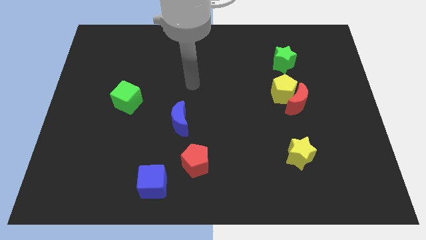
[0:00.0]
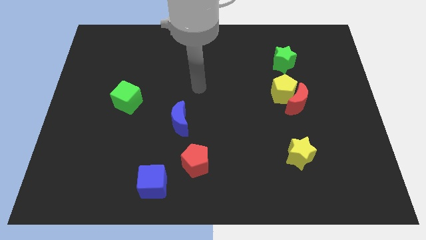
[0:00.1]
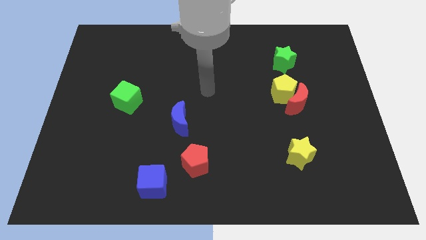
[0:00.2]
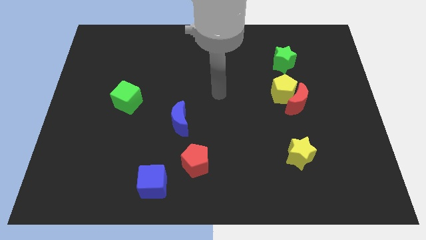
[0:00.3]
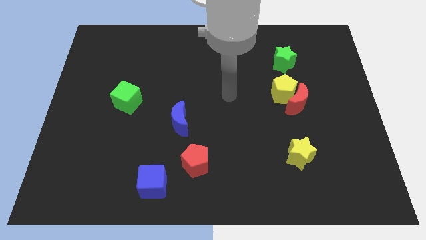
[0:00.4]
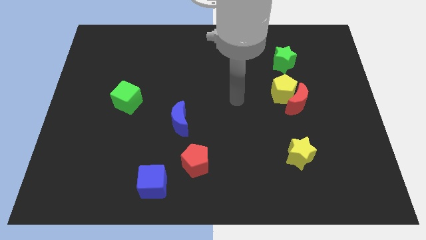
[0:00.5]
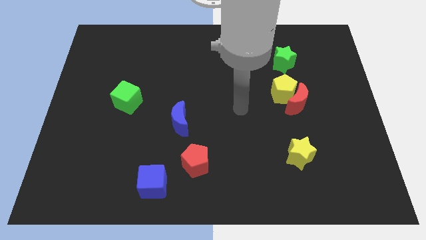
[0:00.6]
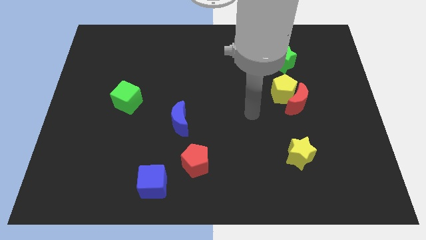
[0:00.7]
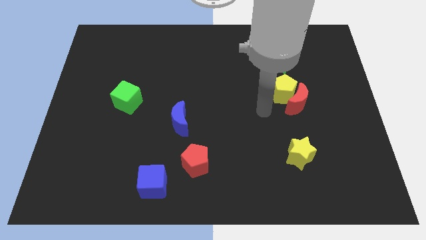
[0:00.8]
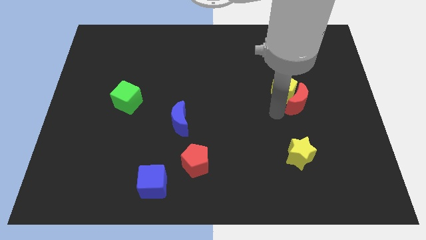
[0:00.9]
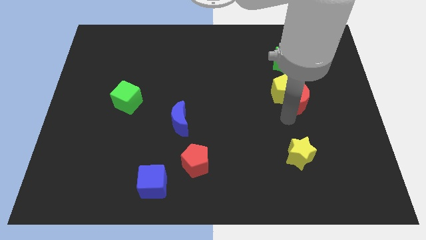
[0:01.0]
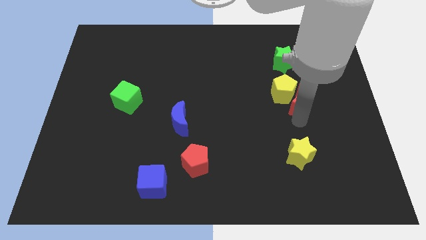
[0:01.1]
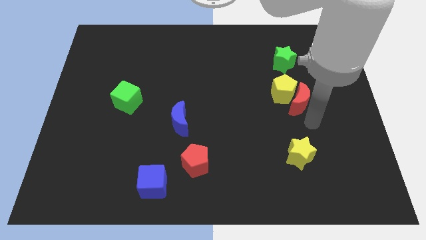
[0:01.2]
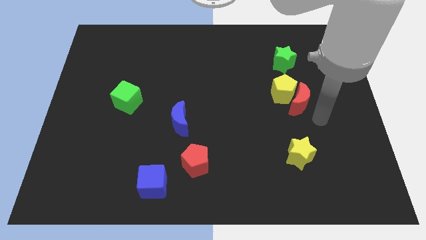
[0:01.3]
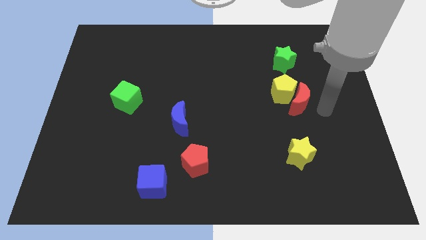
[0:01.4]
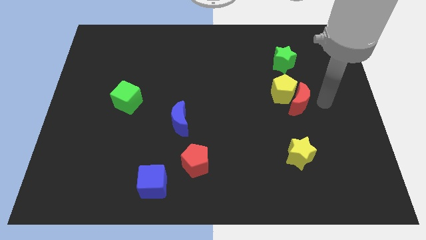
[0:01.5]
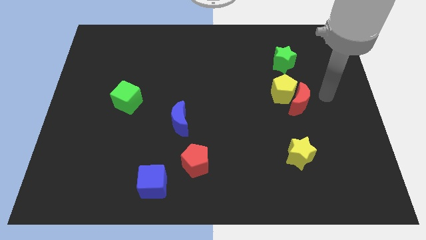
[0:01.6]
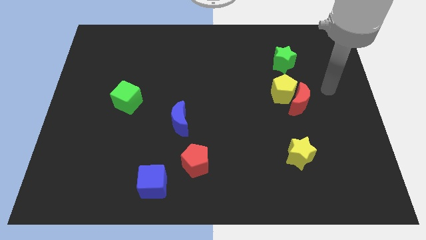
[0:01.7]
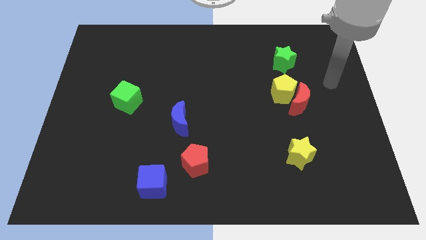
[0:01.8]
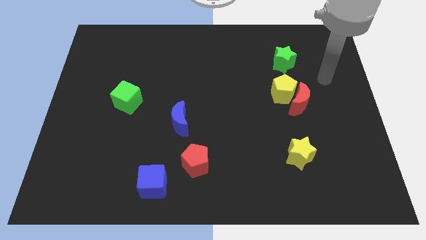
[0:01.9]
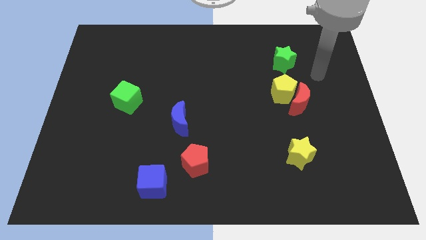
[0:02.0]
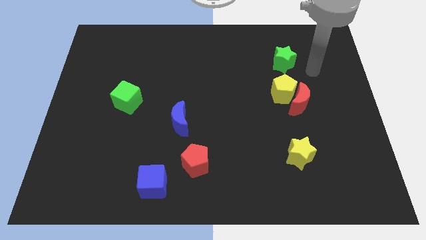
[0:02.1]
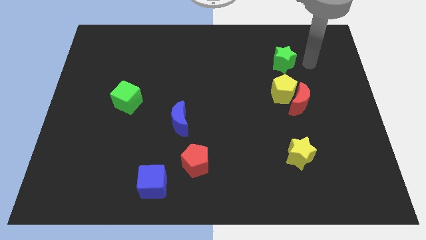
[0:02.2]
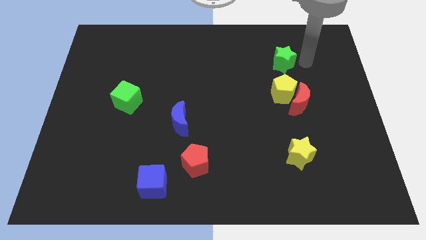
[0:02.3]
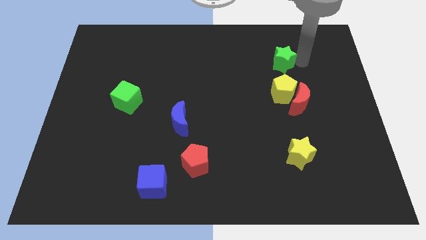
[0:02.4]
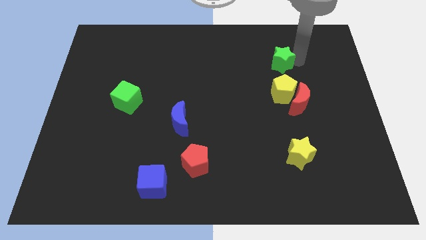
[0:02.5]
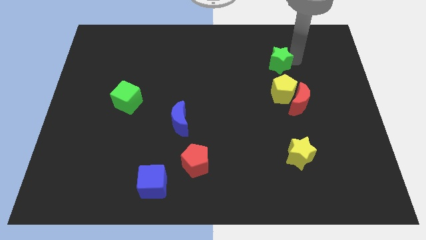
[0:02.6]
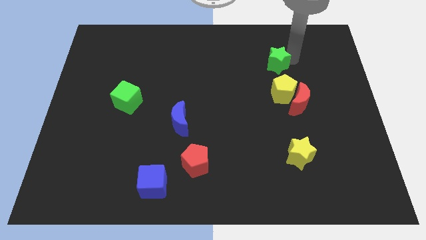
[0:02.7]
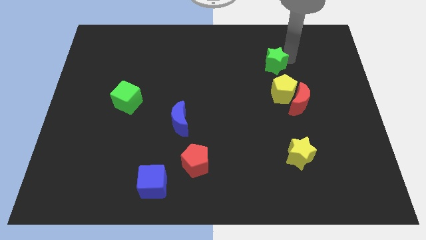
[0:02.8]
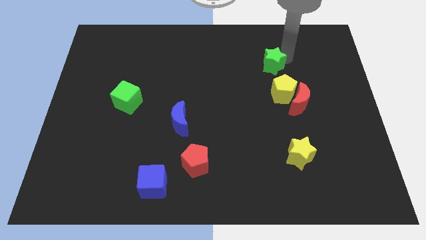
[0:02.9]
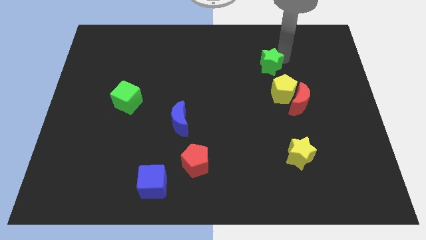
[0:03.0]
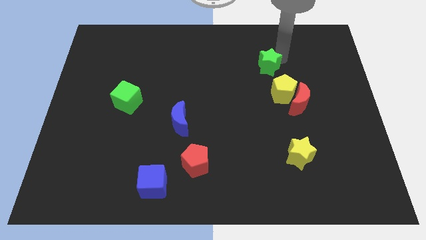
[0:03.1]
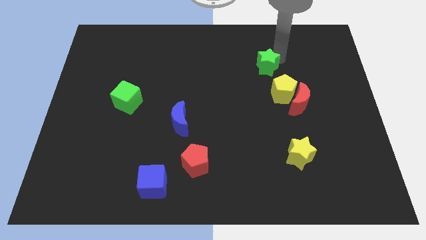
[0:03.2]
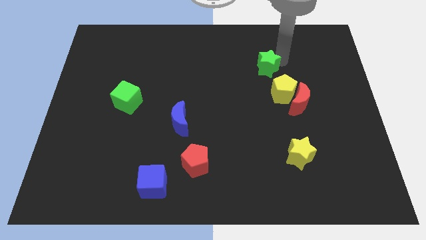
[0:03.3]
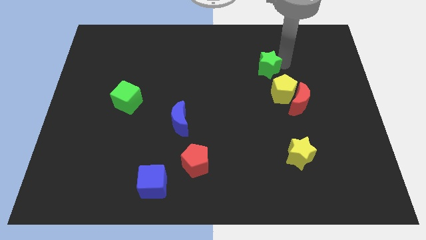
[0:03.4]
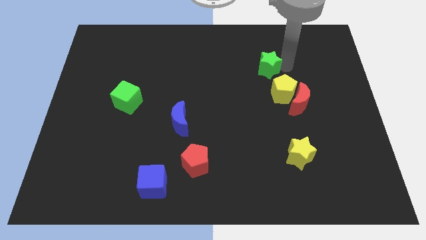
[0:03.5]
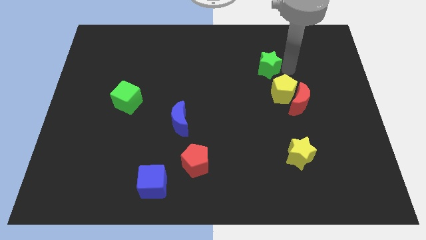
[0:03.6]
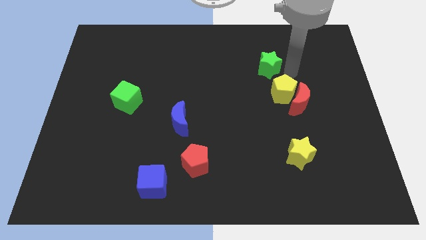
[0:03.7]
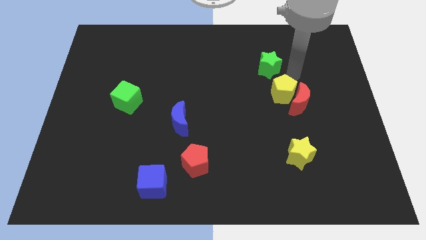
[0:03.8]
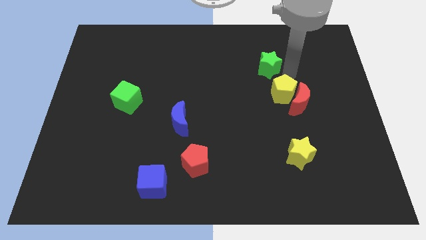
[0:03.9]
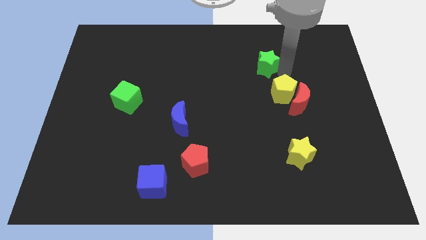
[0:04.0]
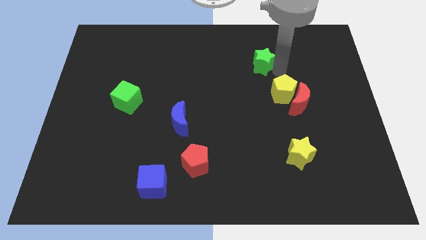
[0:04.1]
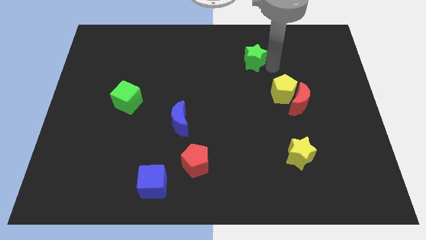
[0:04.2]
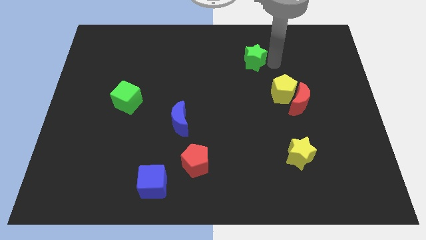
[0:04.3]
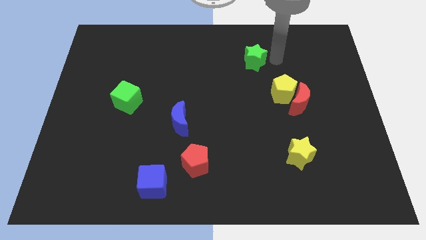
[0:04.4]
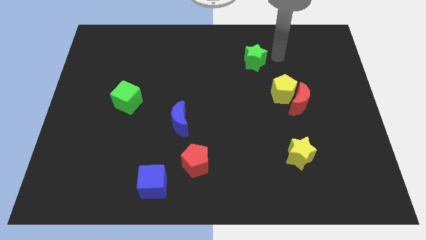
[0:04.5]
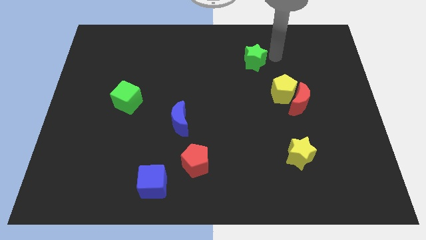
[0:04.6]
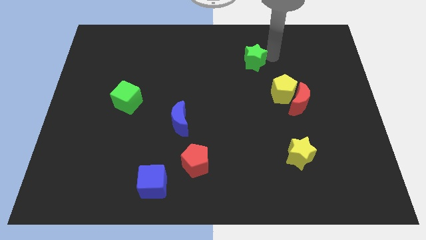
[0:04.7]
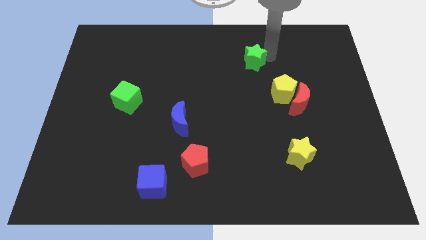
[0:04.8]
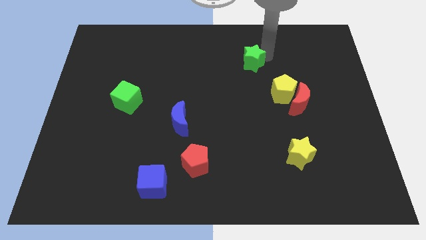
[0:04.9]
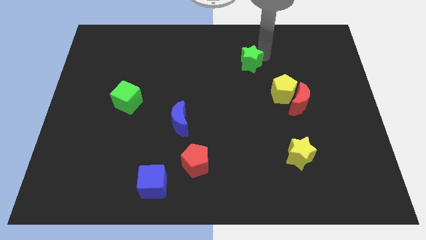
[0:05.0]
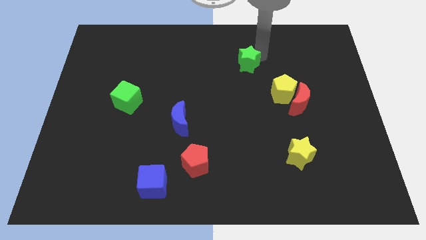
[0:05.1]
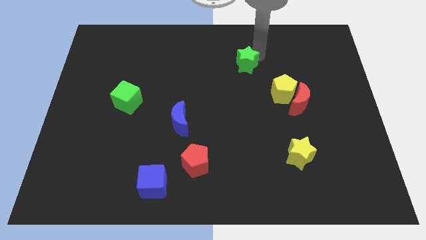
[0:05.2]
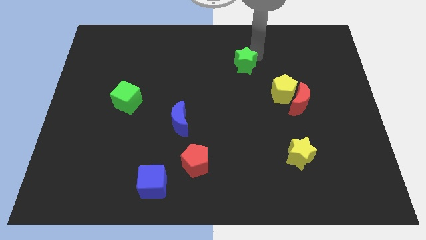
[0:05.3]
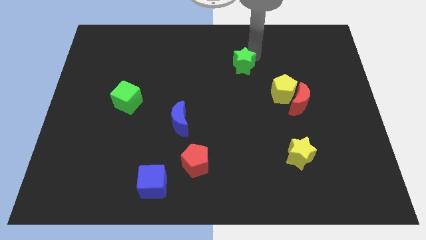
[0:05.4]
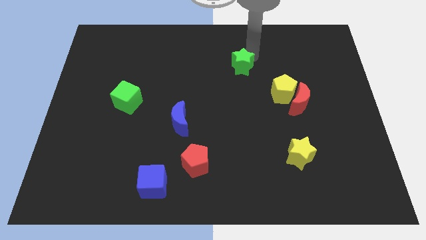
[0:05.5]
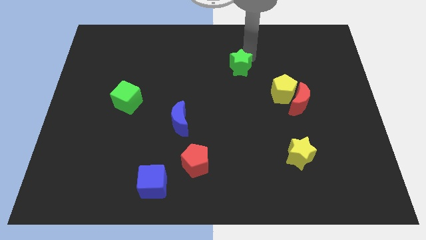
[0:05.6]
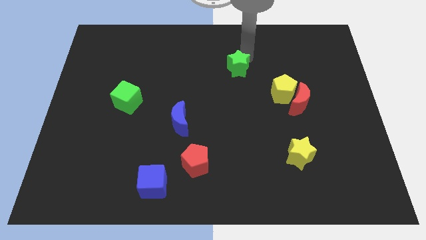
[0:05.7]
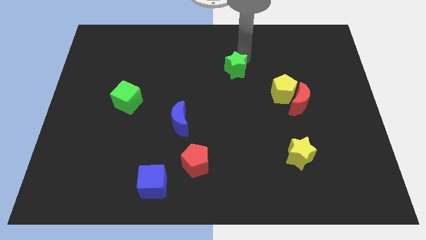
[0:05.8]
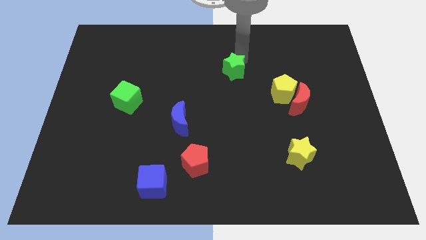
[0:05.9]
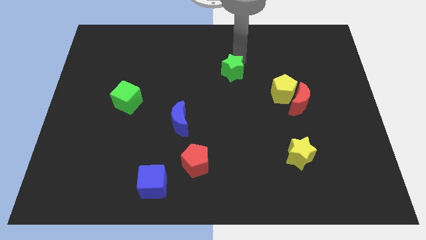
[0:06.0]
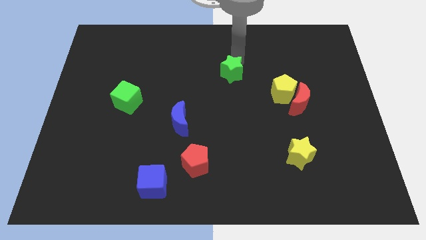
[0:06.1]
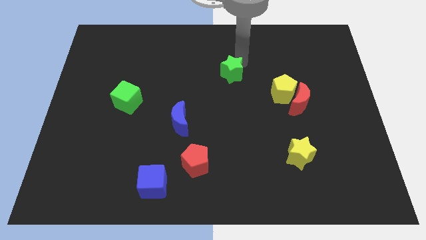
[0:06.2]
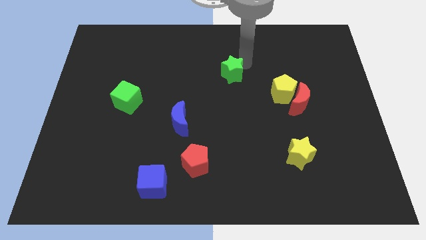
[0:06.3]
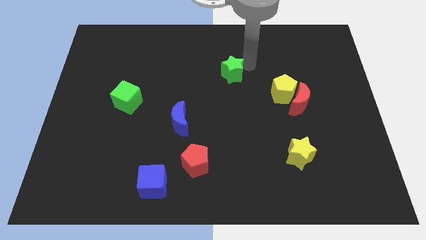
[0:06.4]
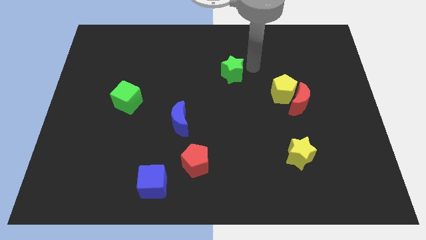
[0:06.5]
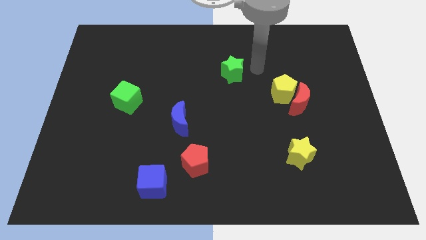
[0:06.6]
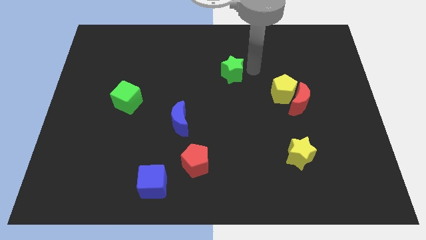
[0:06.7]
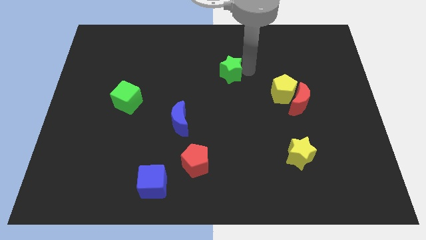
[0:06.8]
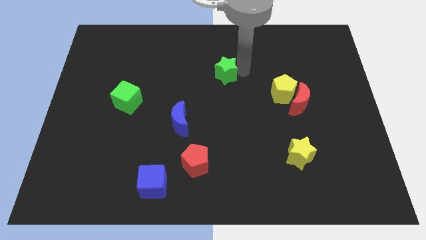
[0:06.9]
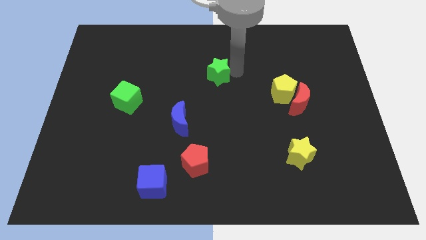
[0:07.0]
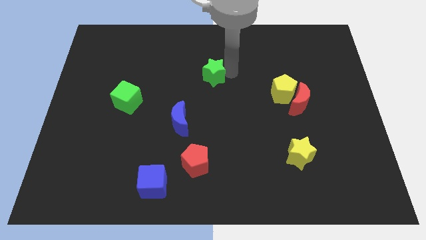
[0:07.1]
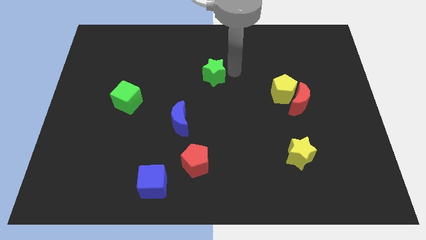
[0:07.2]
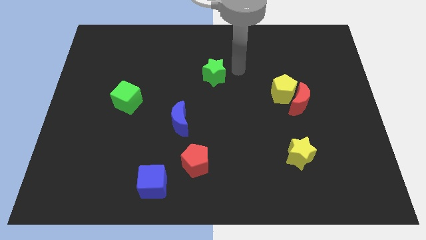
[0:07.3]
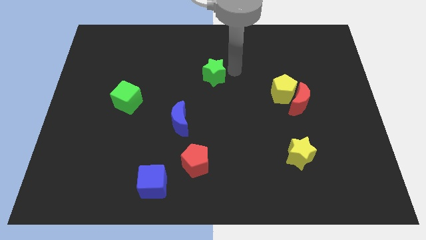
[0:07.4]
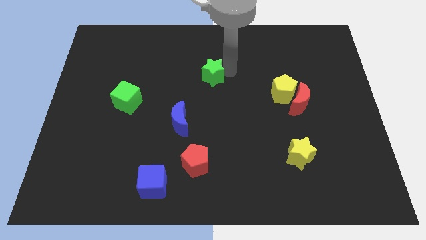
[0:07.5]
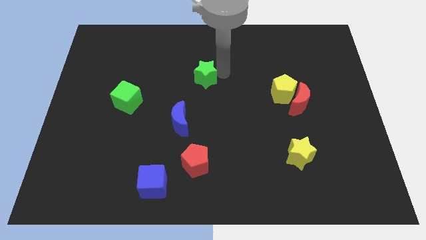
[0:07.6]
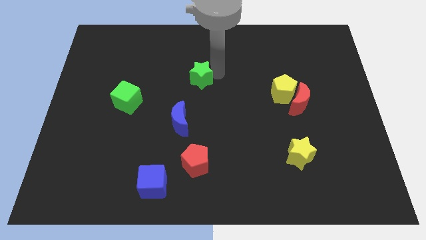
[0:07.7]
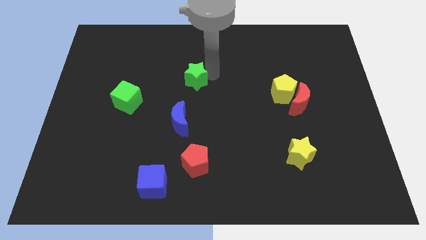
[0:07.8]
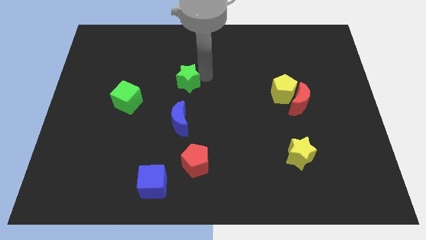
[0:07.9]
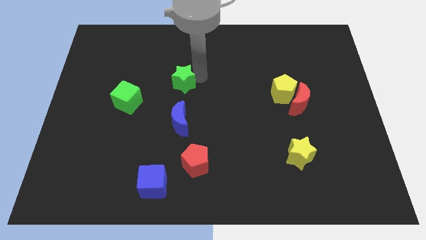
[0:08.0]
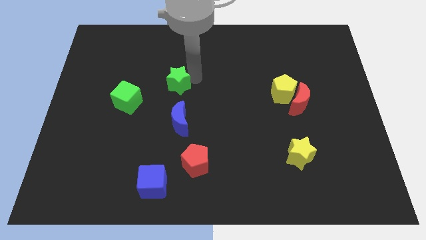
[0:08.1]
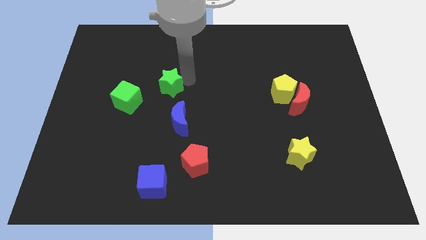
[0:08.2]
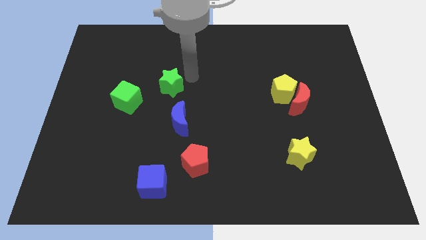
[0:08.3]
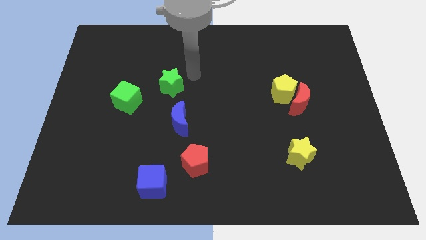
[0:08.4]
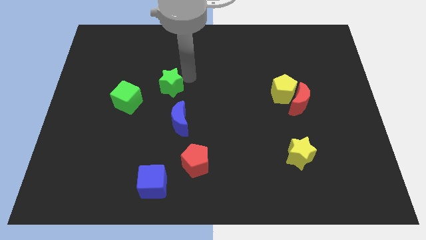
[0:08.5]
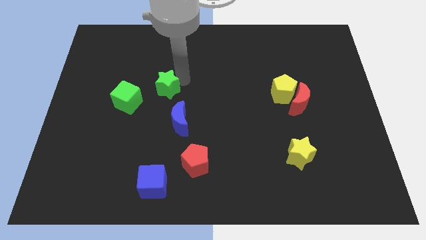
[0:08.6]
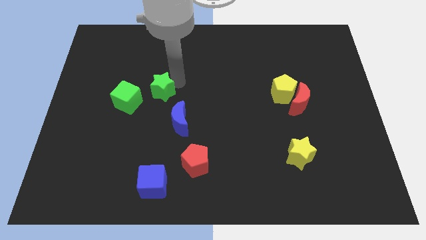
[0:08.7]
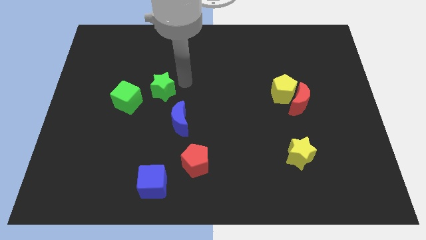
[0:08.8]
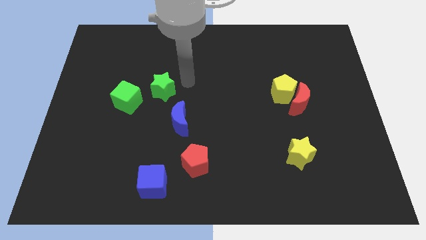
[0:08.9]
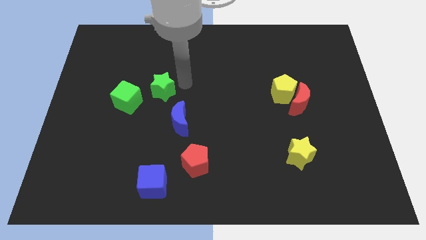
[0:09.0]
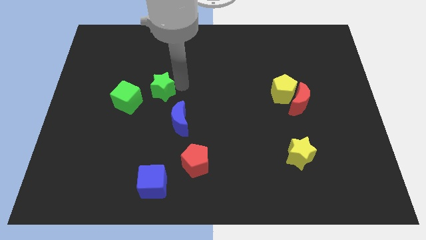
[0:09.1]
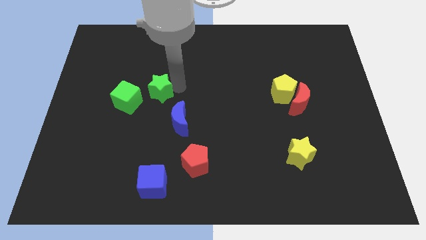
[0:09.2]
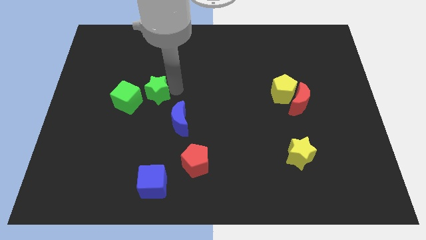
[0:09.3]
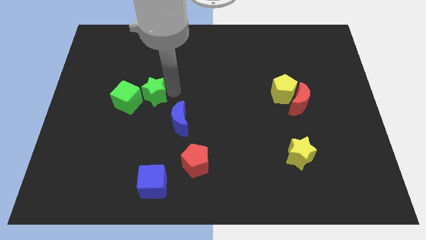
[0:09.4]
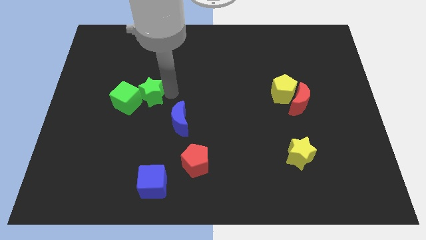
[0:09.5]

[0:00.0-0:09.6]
put the green star to the green cube
